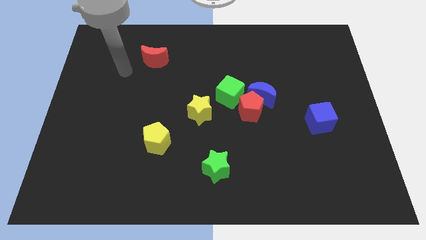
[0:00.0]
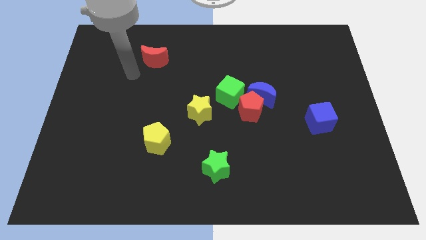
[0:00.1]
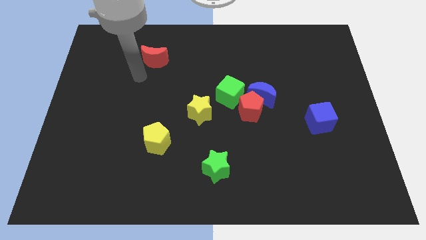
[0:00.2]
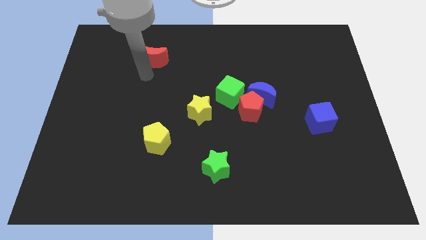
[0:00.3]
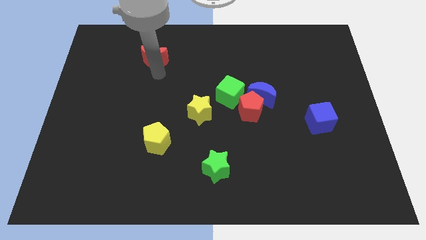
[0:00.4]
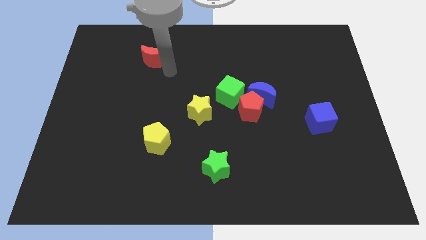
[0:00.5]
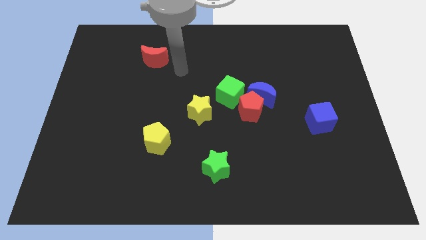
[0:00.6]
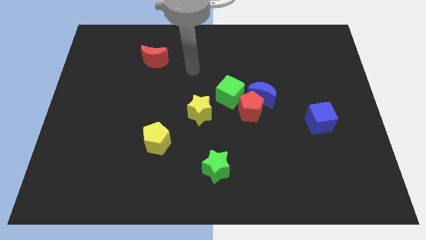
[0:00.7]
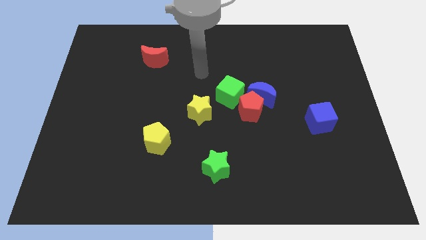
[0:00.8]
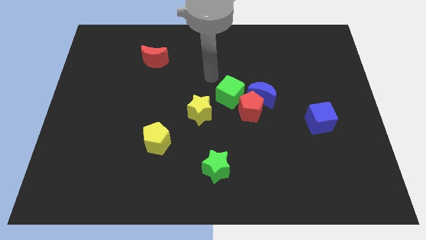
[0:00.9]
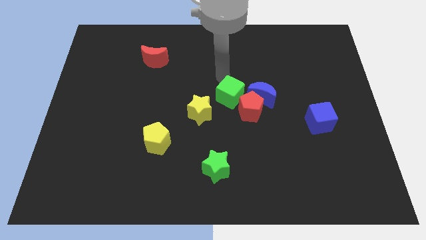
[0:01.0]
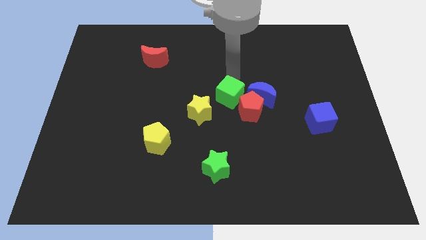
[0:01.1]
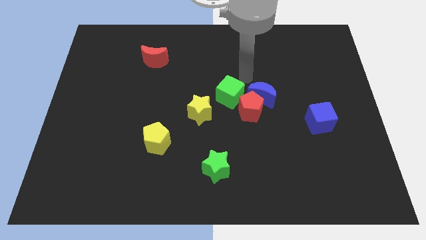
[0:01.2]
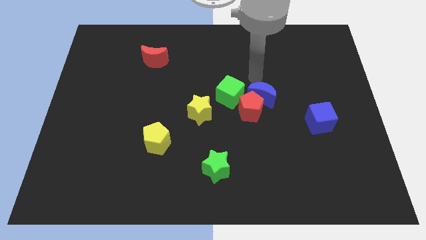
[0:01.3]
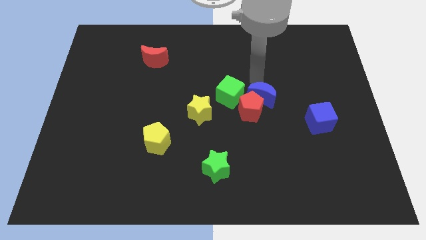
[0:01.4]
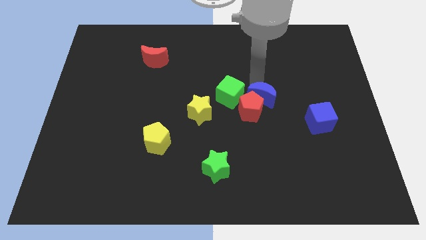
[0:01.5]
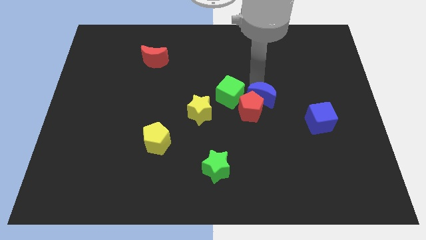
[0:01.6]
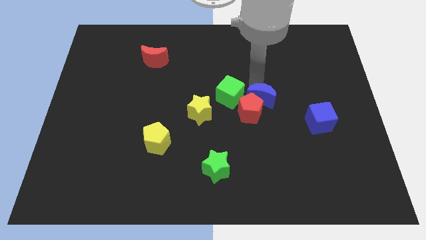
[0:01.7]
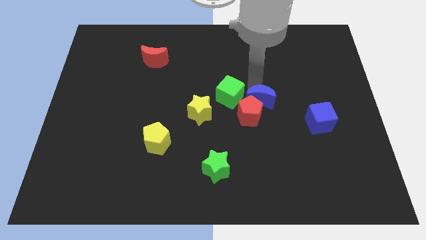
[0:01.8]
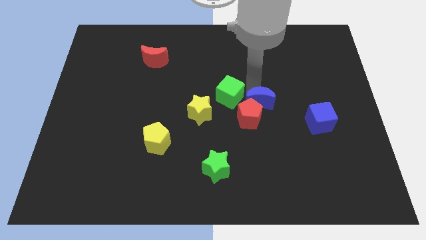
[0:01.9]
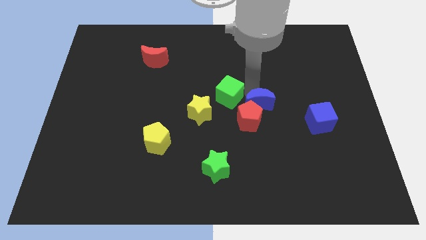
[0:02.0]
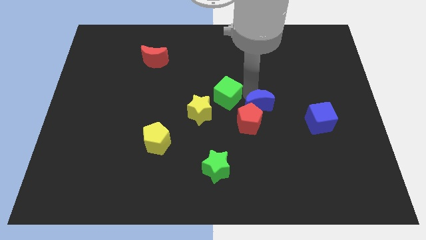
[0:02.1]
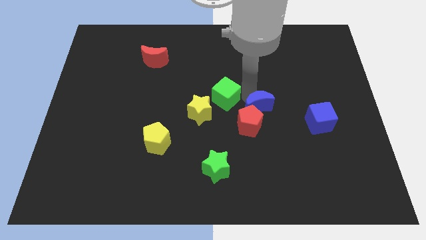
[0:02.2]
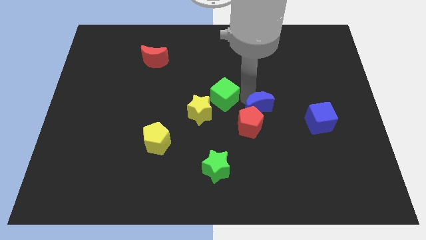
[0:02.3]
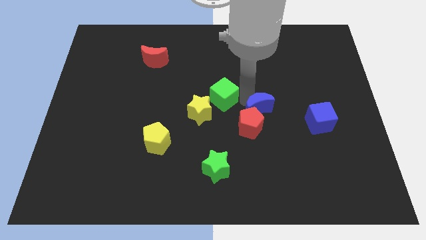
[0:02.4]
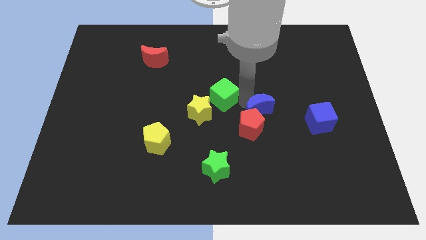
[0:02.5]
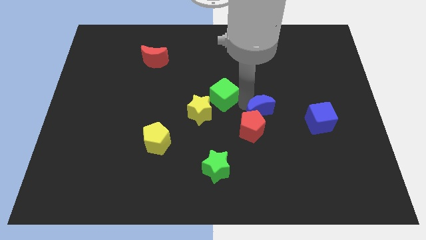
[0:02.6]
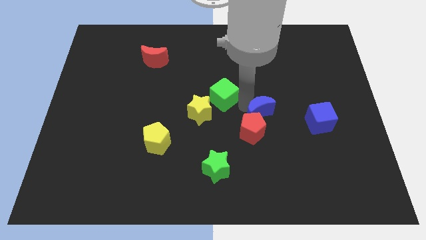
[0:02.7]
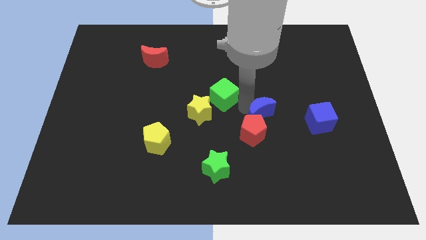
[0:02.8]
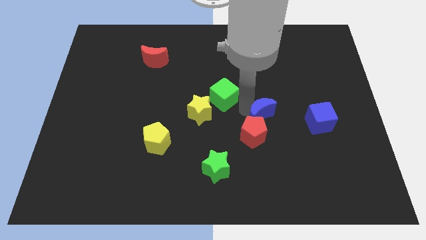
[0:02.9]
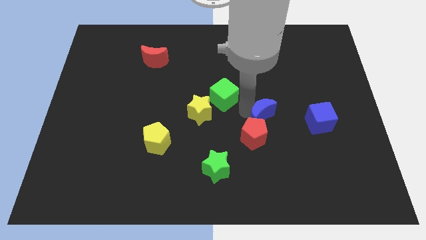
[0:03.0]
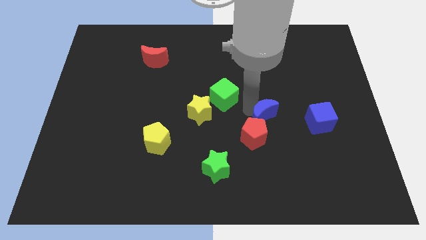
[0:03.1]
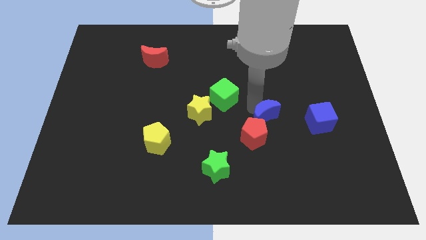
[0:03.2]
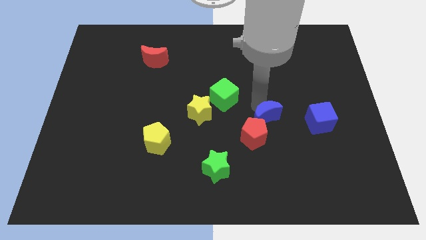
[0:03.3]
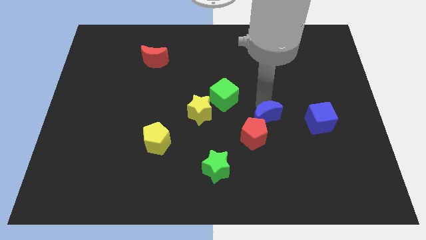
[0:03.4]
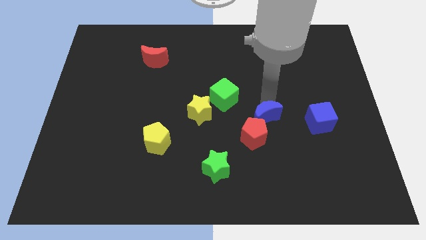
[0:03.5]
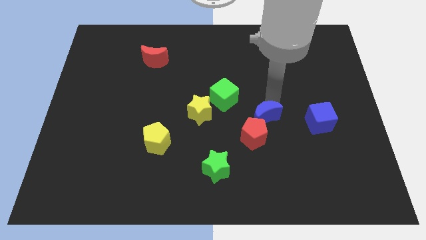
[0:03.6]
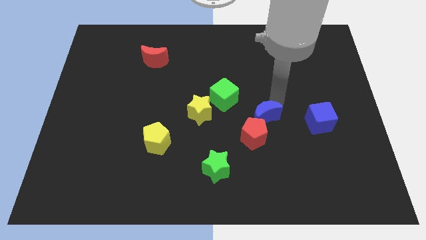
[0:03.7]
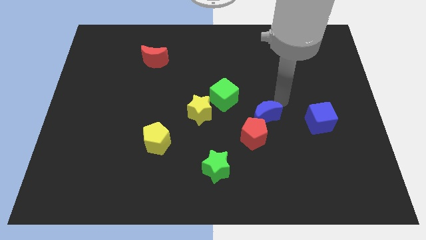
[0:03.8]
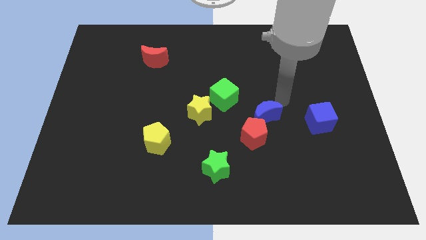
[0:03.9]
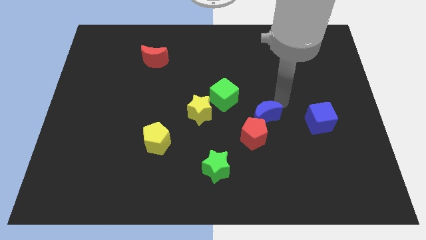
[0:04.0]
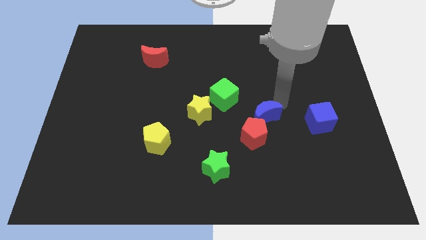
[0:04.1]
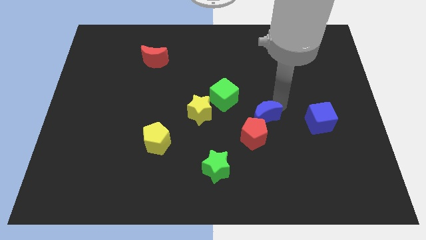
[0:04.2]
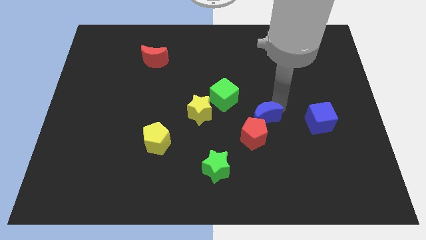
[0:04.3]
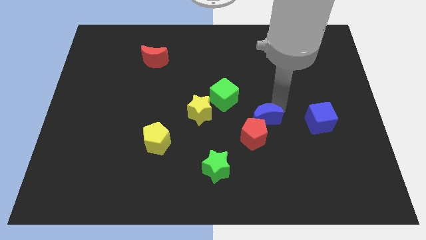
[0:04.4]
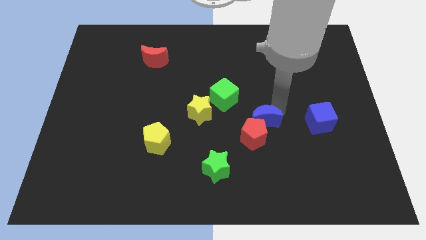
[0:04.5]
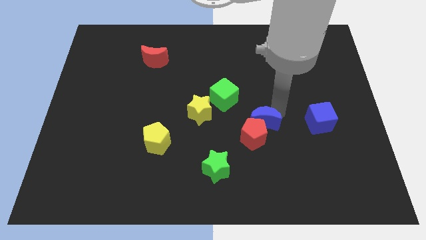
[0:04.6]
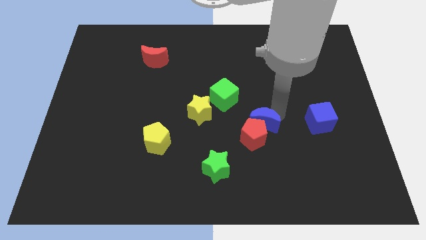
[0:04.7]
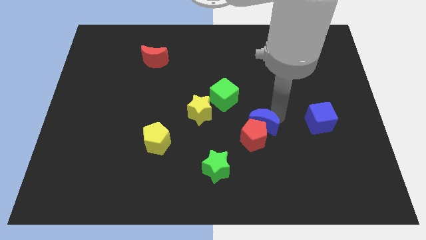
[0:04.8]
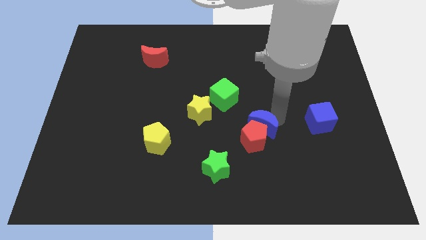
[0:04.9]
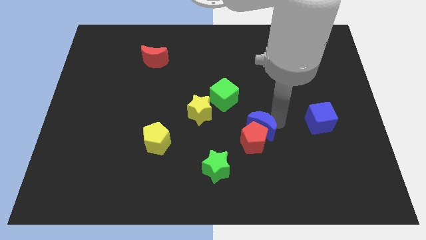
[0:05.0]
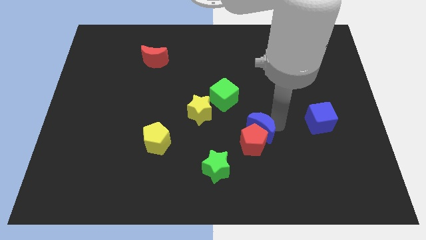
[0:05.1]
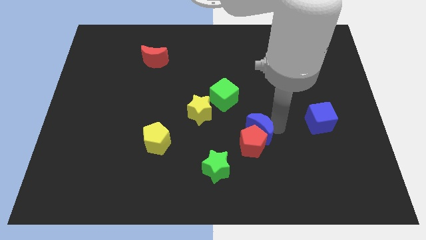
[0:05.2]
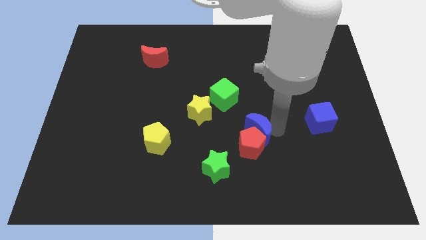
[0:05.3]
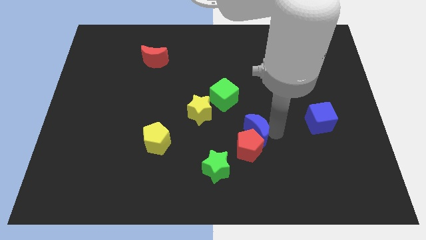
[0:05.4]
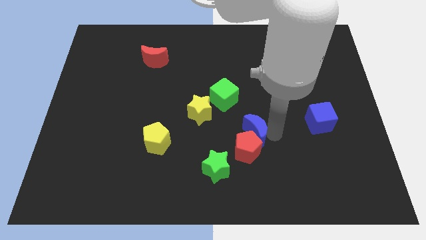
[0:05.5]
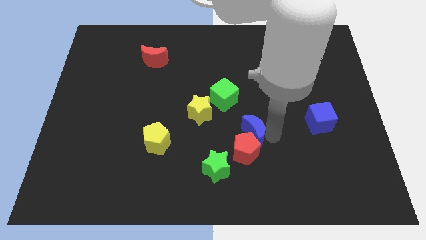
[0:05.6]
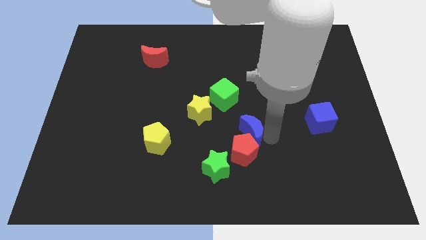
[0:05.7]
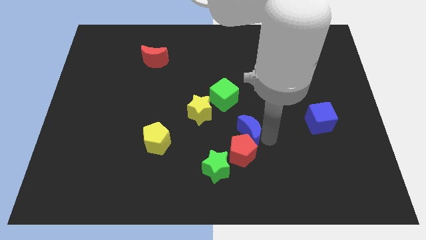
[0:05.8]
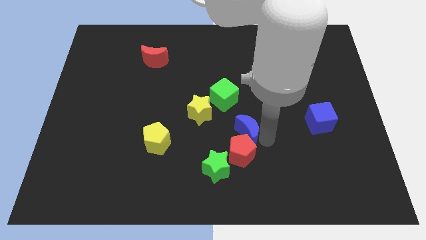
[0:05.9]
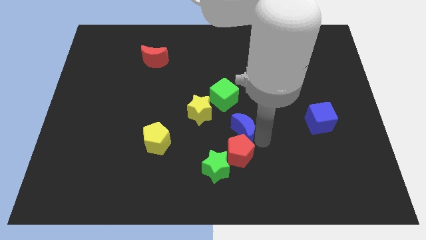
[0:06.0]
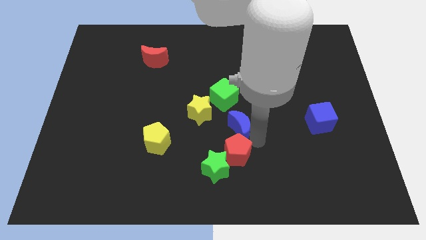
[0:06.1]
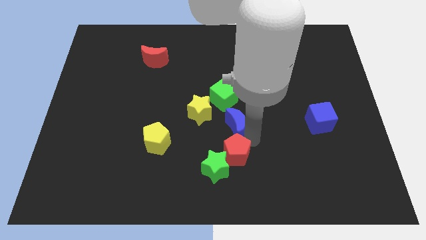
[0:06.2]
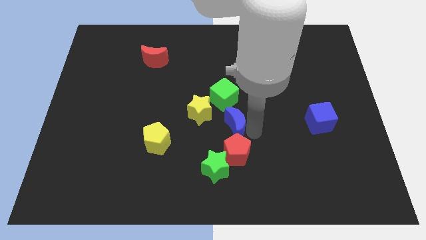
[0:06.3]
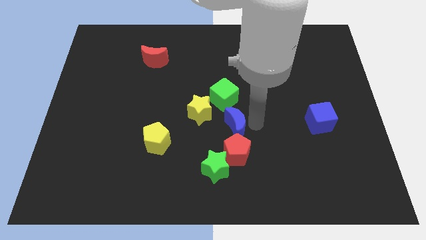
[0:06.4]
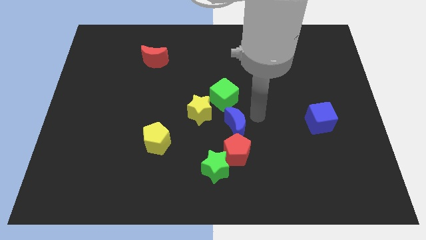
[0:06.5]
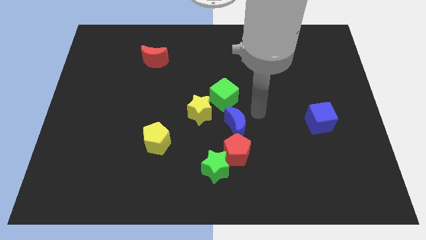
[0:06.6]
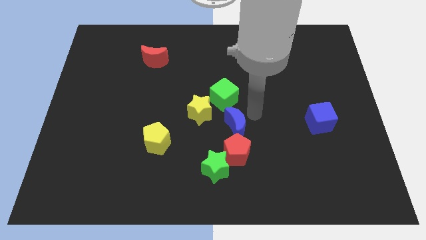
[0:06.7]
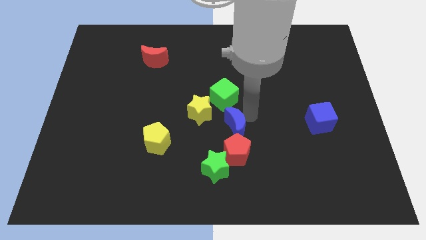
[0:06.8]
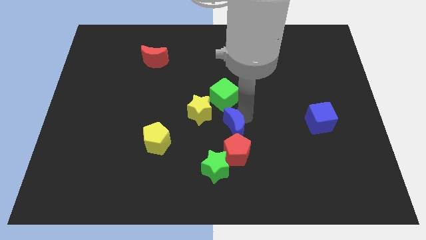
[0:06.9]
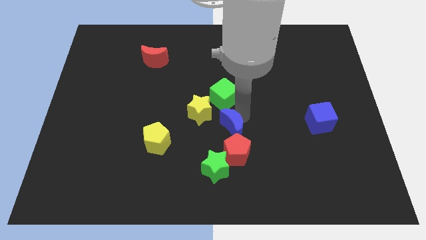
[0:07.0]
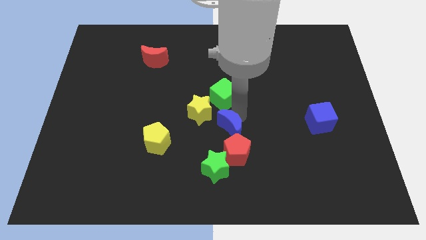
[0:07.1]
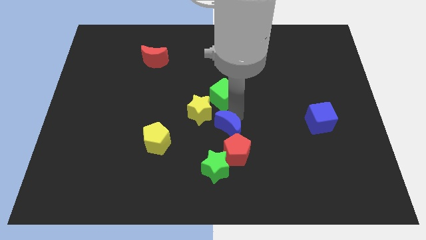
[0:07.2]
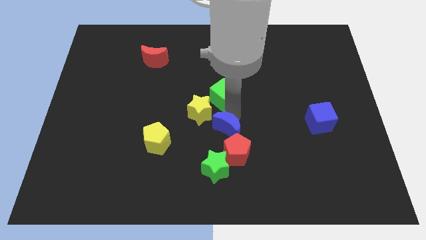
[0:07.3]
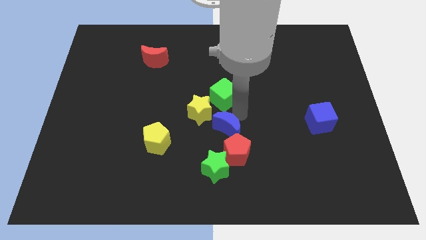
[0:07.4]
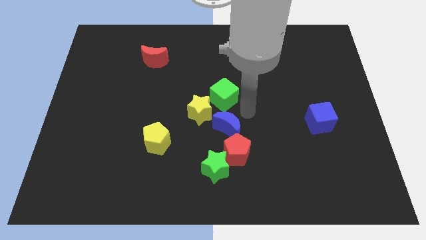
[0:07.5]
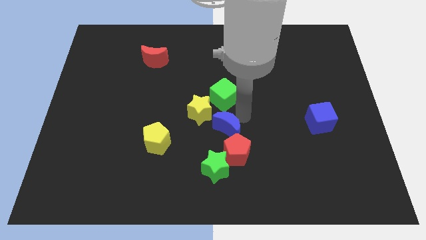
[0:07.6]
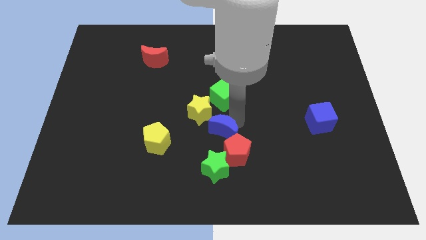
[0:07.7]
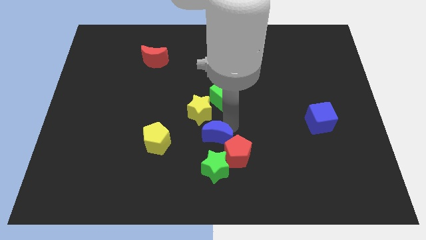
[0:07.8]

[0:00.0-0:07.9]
slide the blue moon to the bottom side of the yellow star
